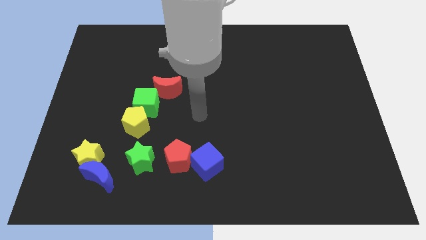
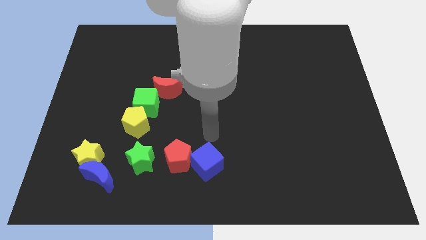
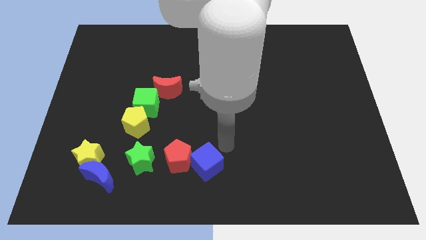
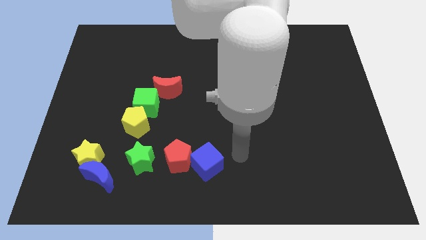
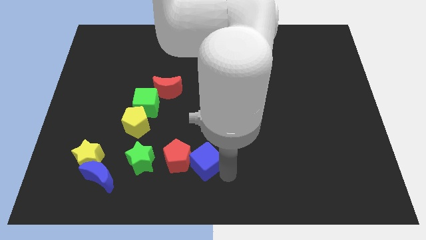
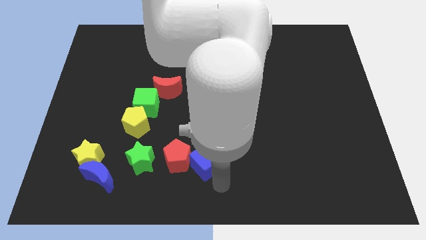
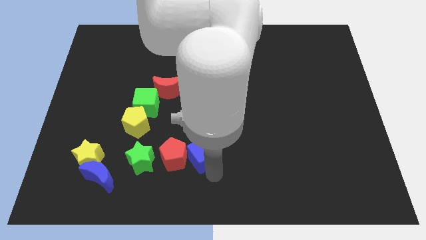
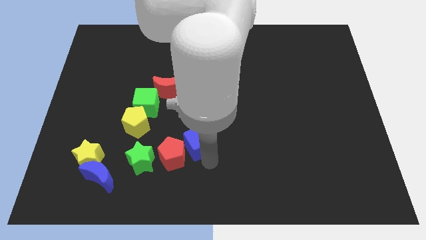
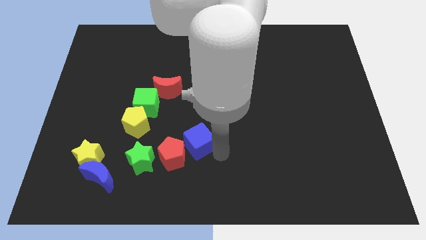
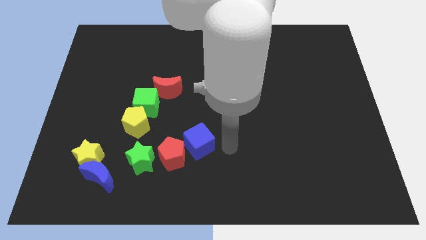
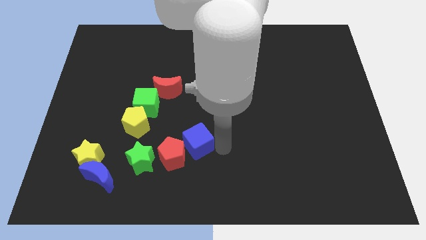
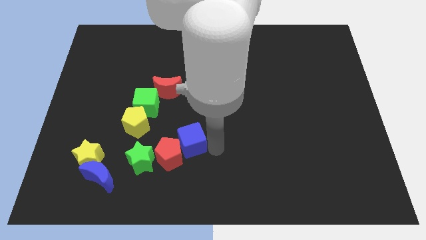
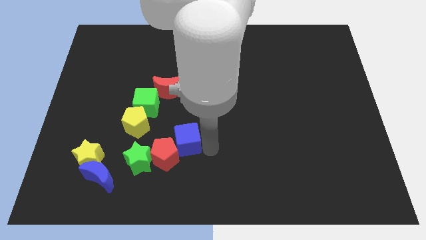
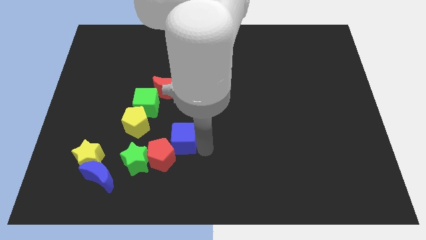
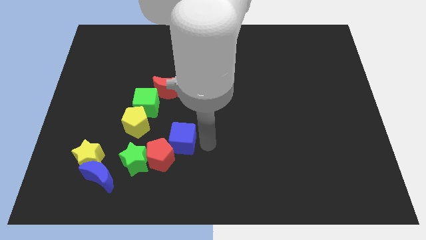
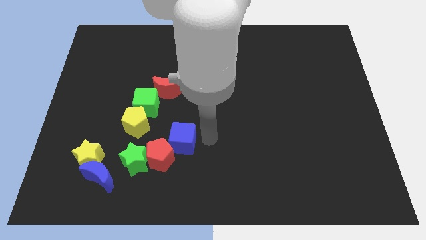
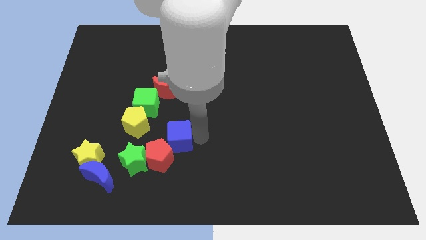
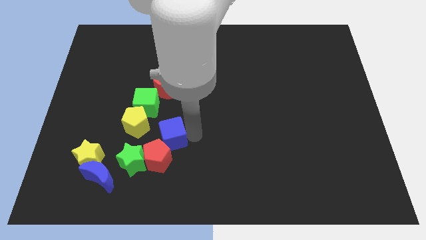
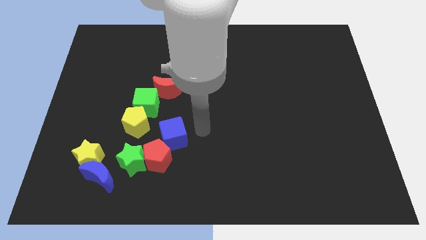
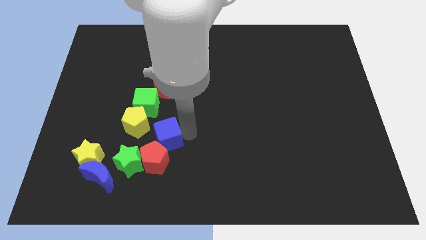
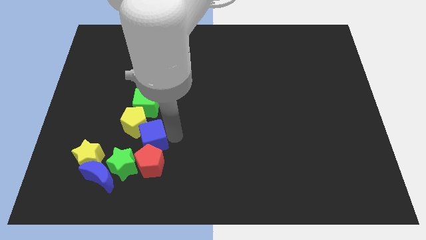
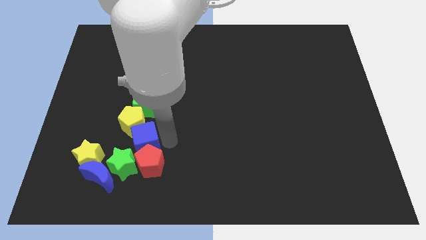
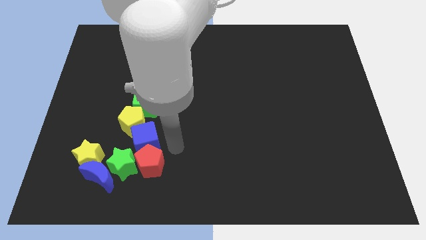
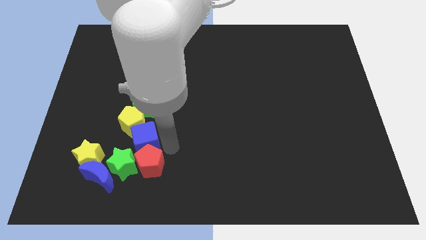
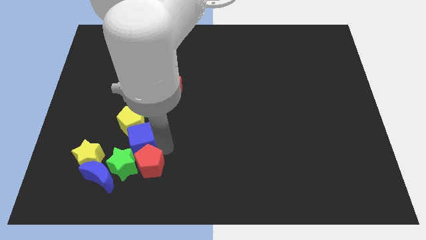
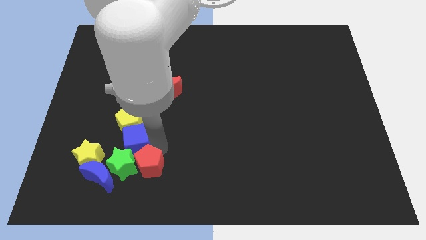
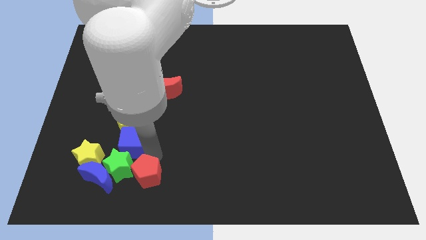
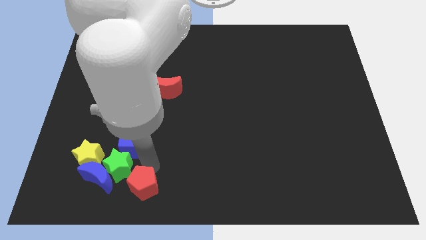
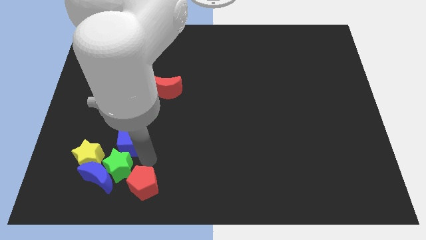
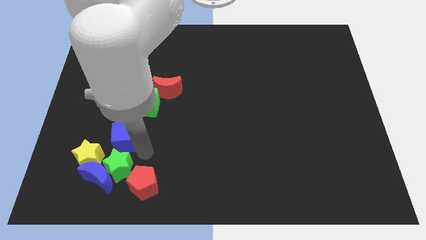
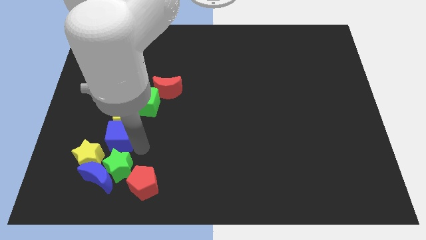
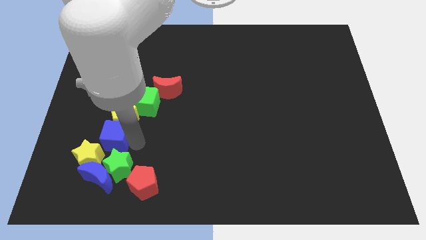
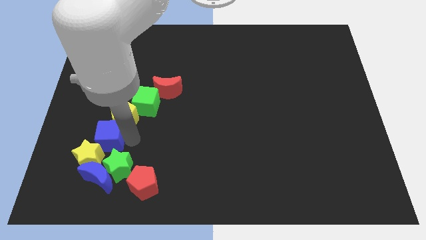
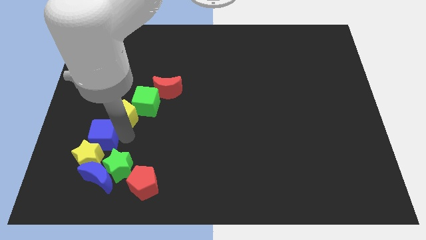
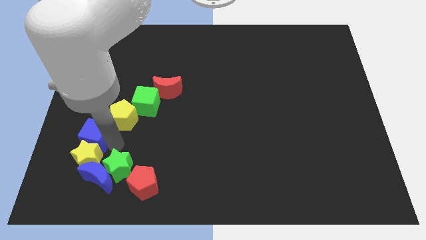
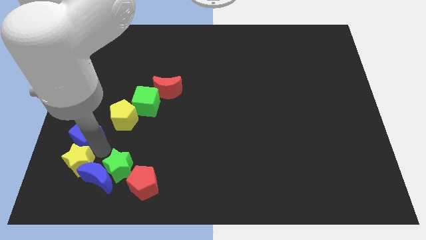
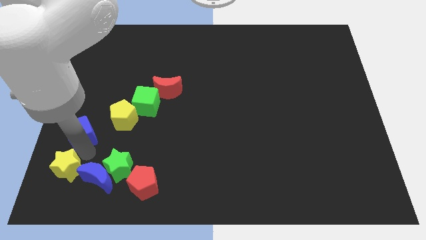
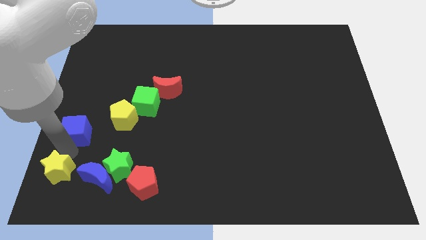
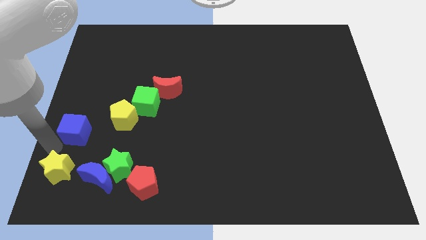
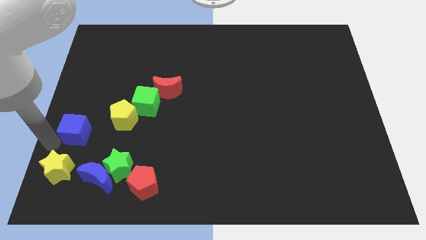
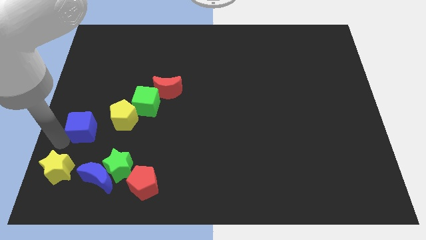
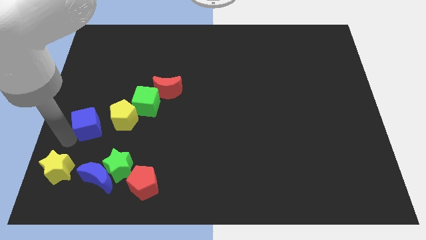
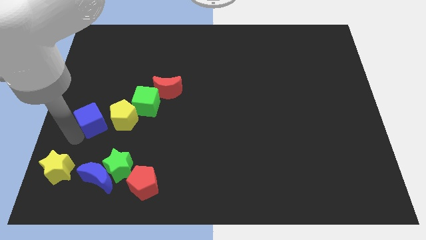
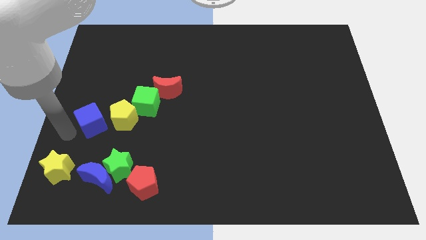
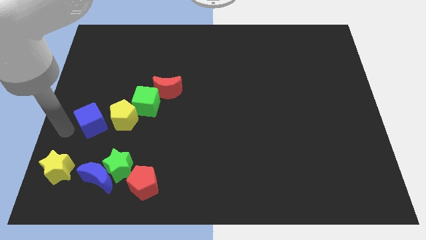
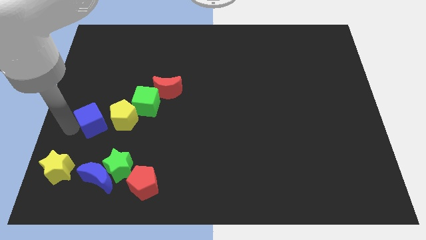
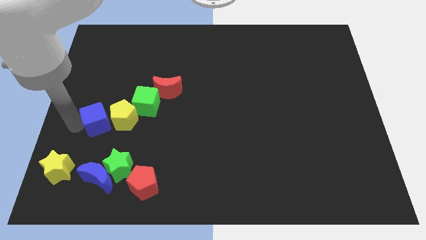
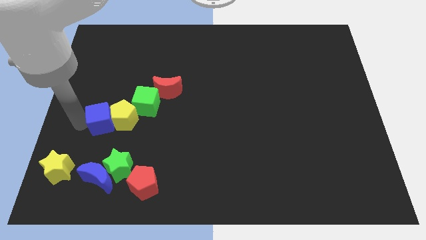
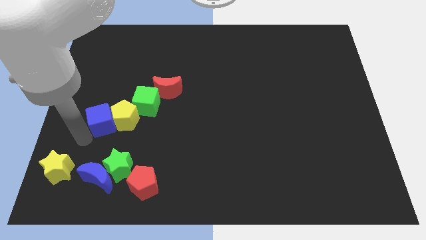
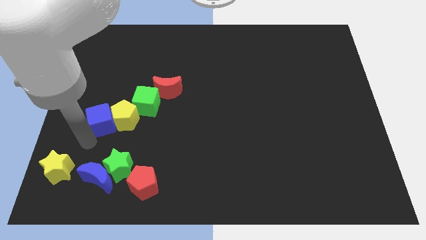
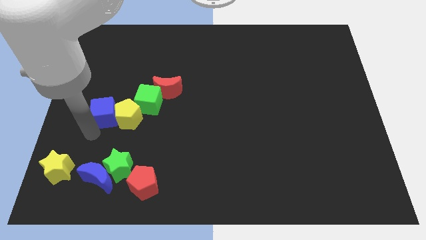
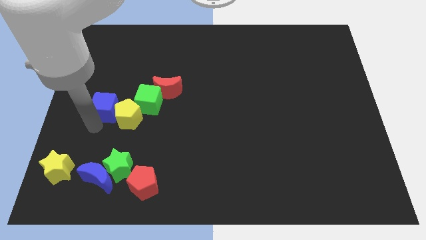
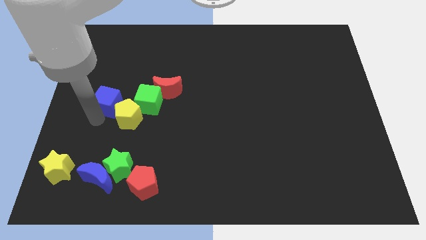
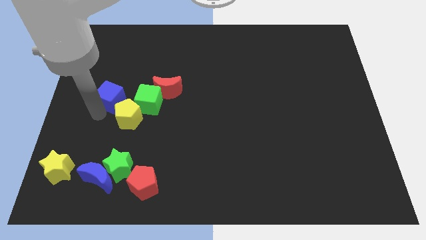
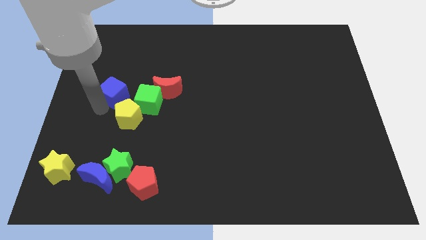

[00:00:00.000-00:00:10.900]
push the blue cube to the top left of the green cube

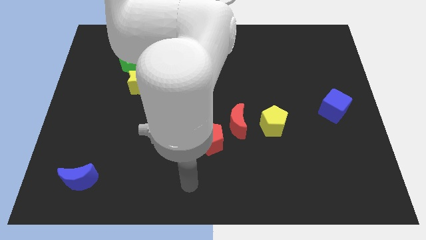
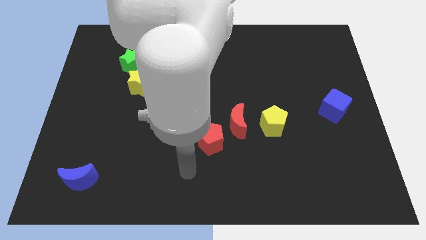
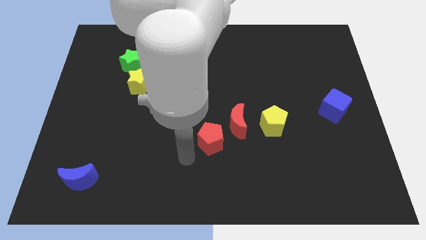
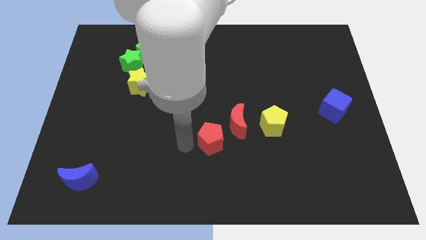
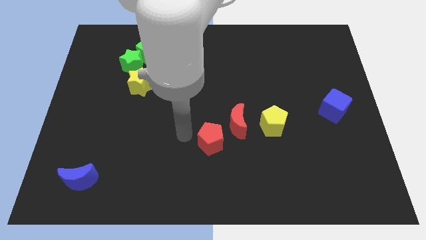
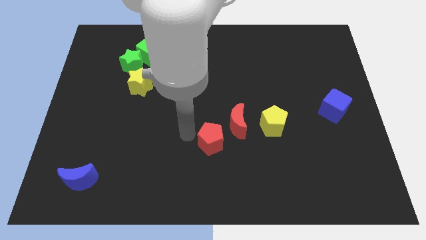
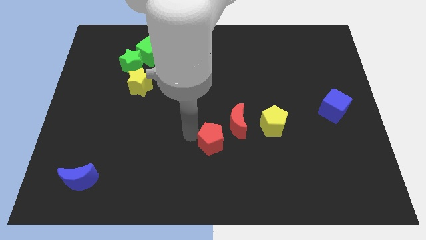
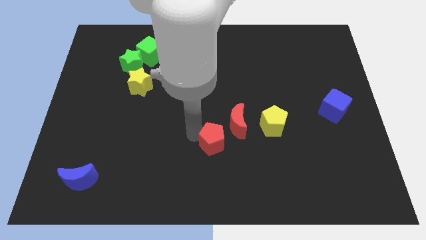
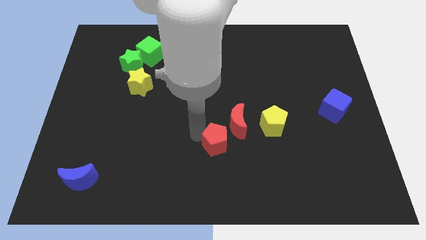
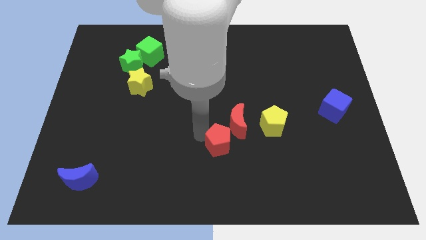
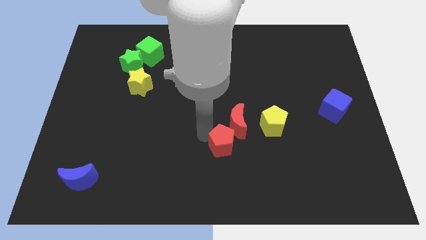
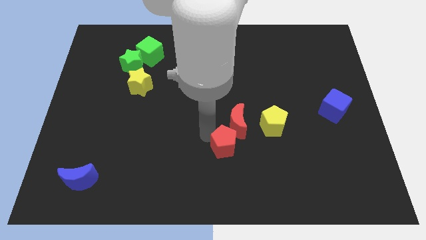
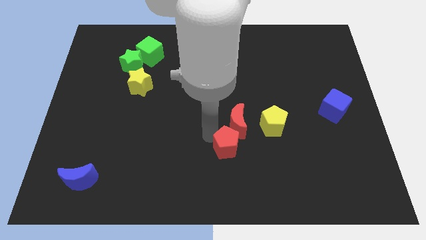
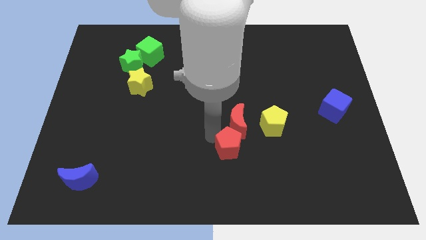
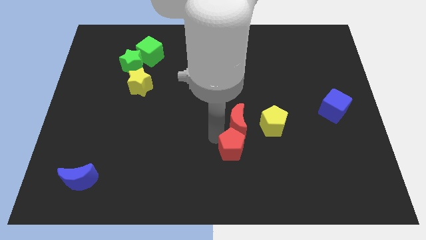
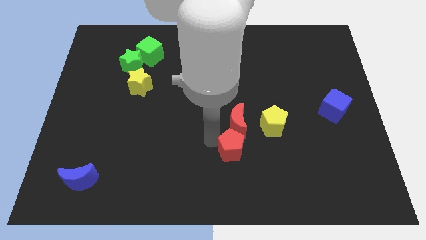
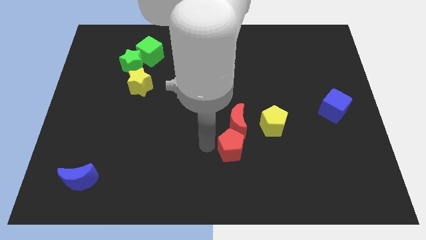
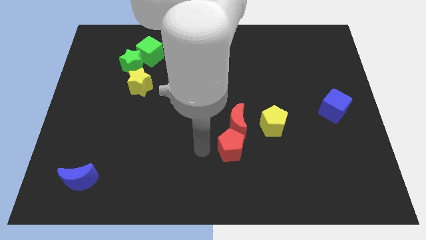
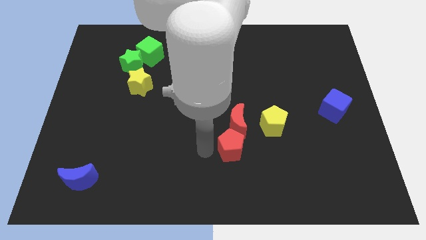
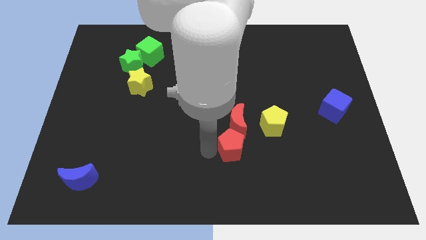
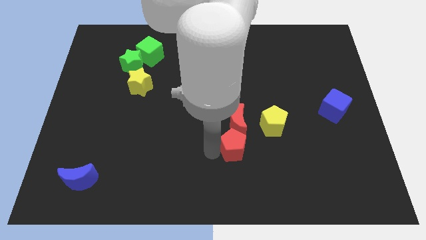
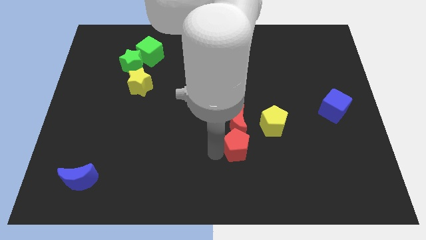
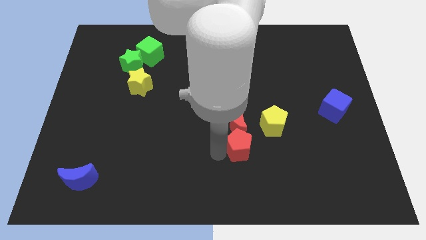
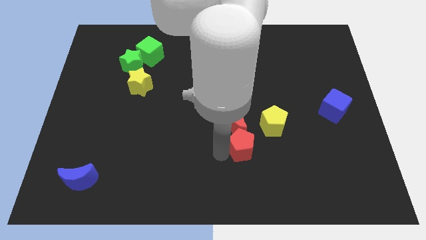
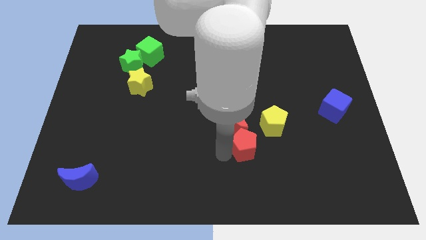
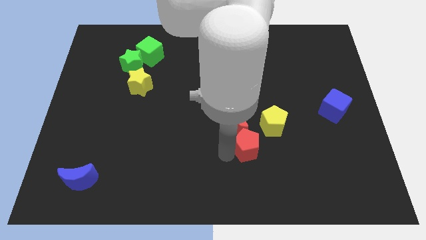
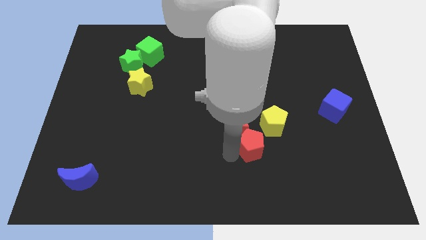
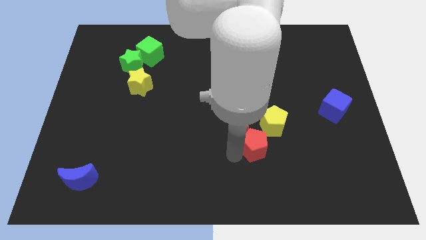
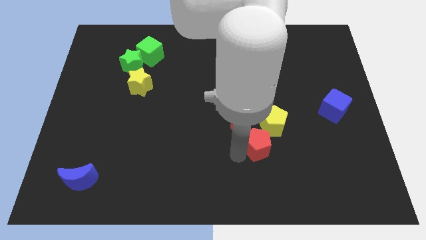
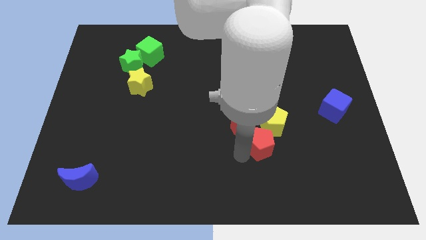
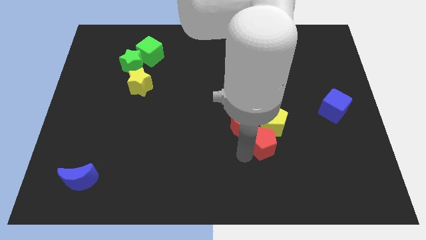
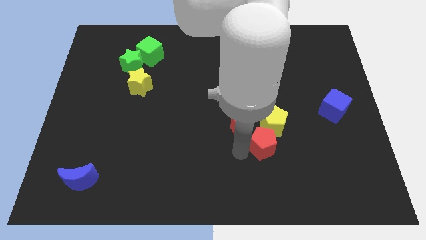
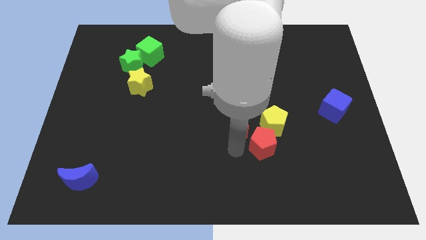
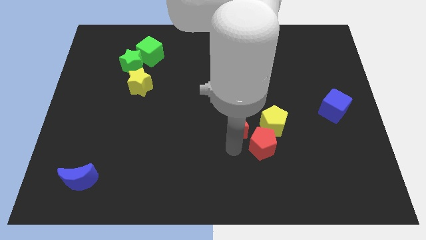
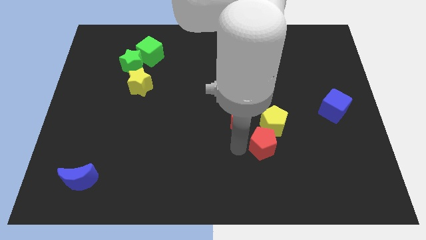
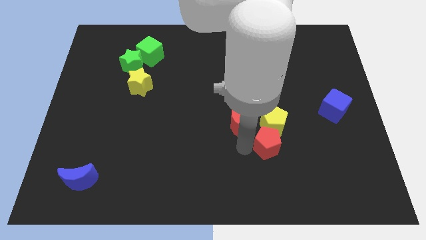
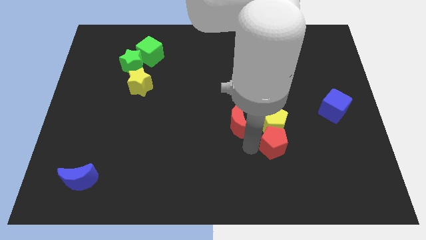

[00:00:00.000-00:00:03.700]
slide the red pentagon diagonally down and to the right of the yellow pentagon
